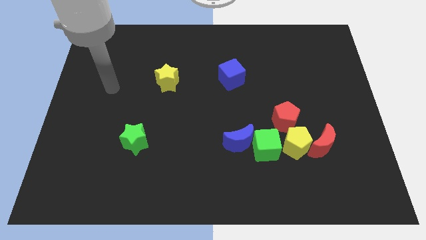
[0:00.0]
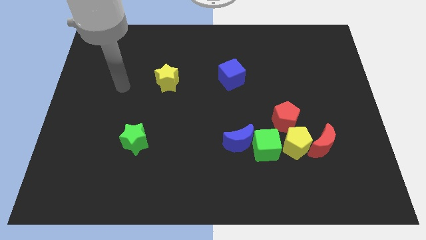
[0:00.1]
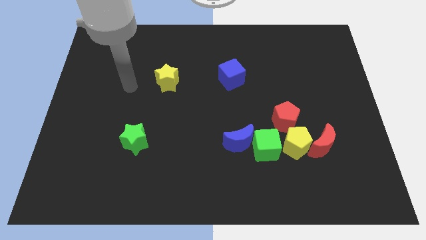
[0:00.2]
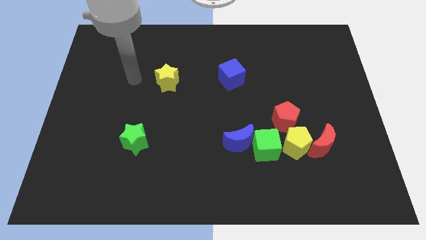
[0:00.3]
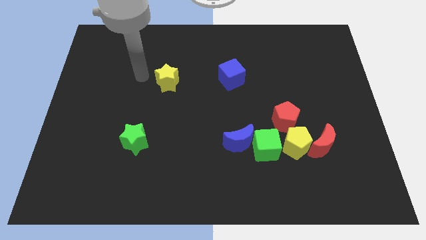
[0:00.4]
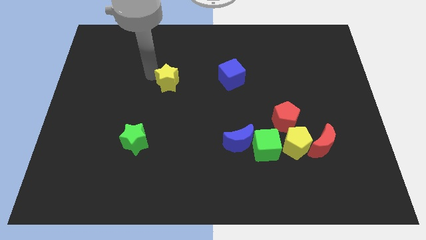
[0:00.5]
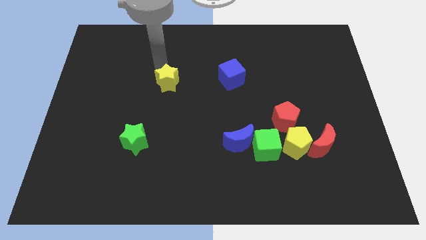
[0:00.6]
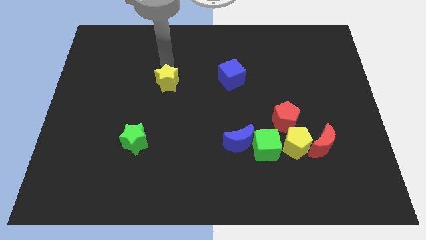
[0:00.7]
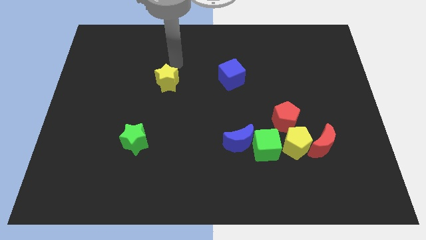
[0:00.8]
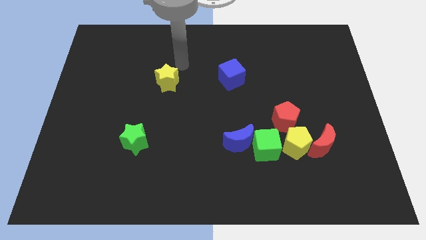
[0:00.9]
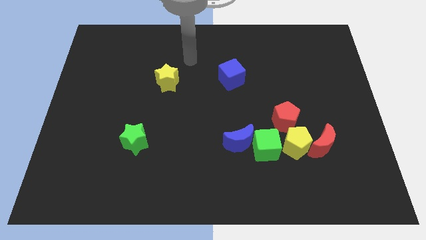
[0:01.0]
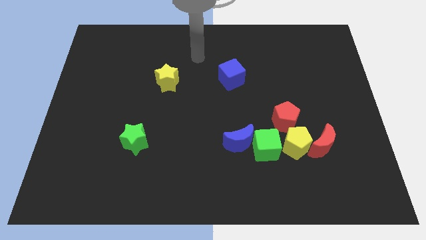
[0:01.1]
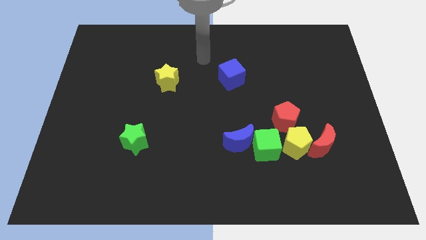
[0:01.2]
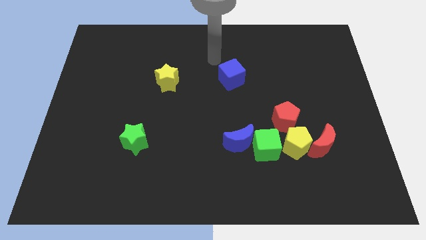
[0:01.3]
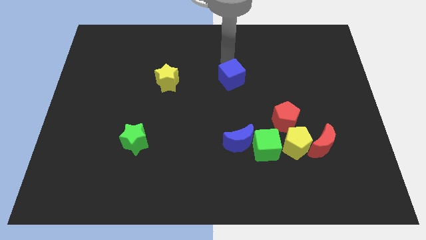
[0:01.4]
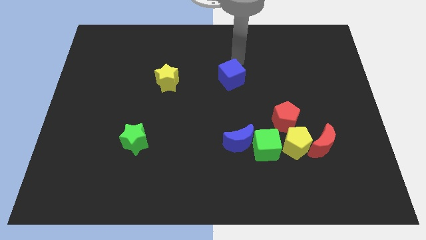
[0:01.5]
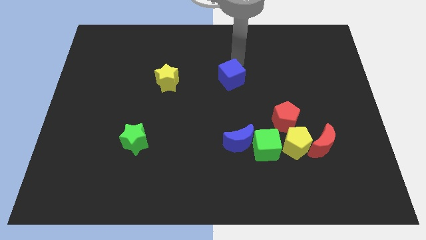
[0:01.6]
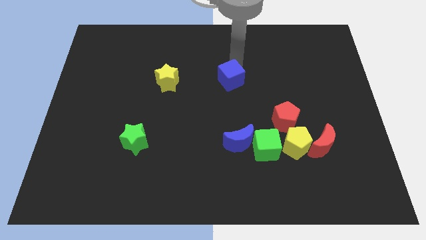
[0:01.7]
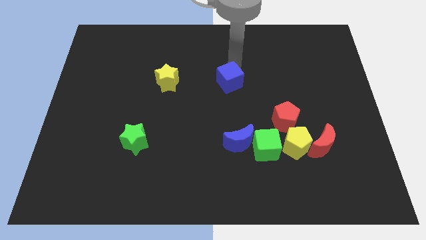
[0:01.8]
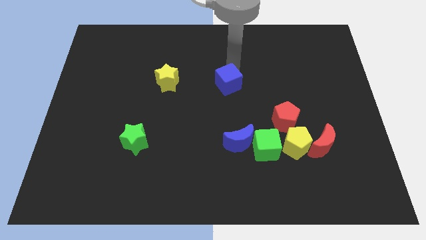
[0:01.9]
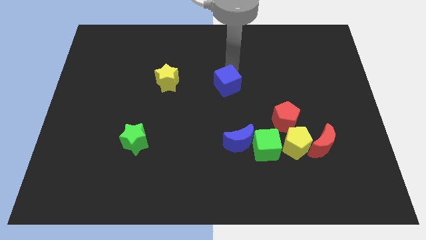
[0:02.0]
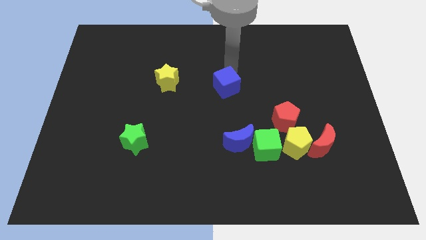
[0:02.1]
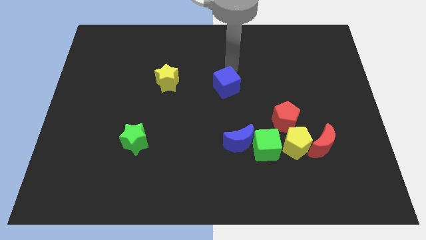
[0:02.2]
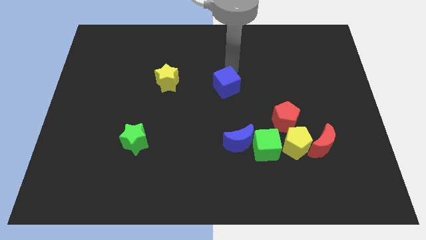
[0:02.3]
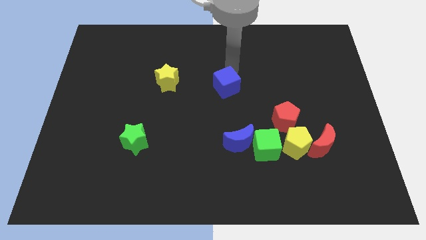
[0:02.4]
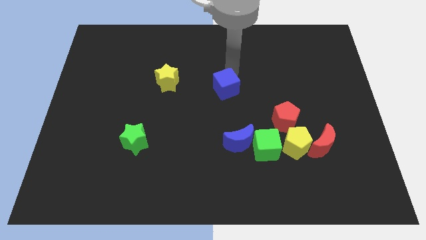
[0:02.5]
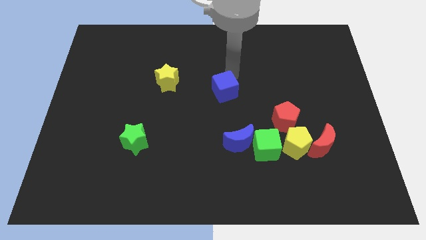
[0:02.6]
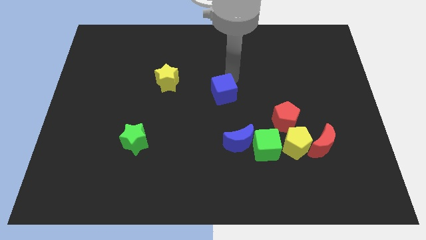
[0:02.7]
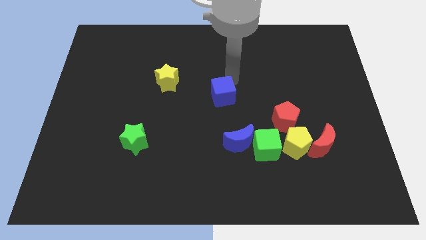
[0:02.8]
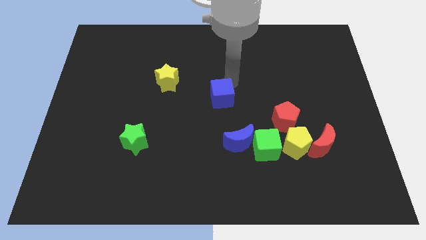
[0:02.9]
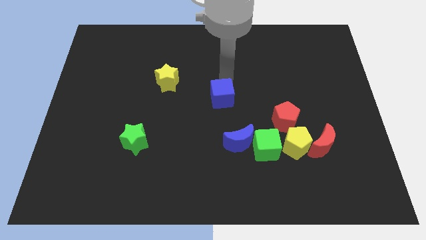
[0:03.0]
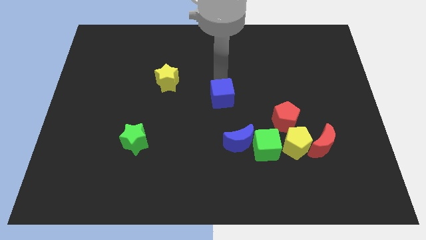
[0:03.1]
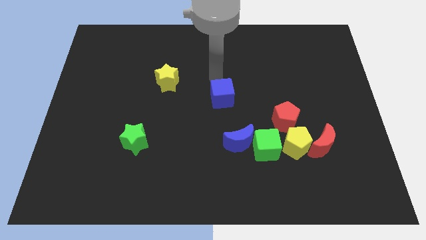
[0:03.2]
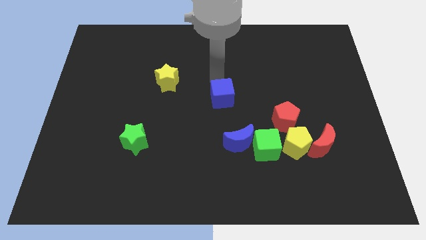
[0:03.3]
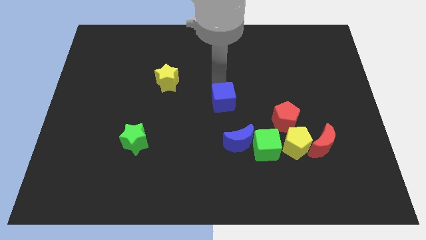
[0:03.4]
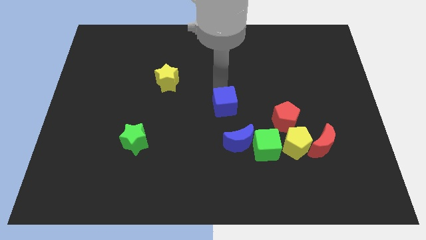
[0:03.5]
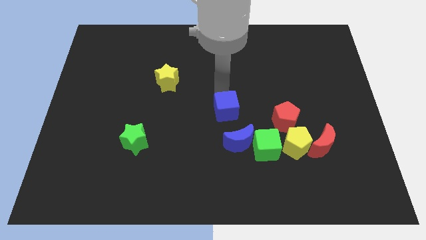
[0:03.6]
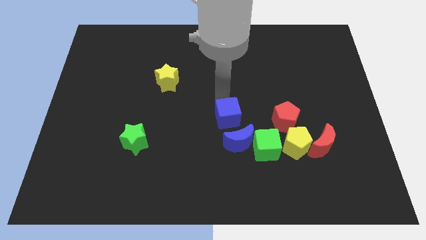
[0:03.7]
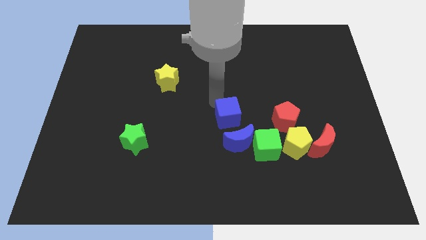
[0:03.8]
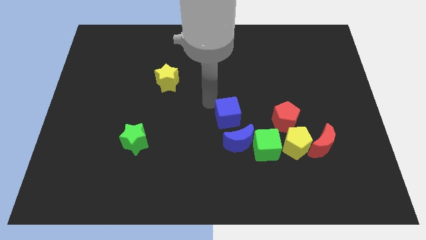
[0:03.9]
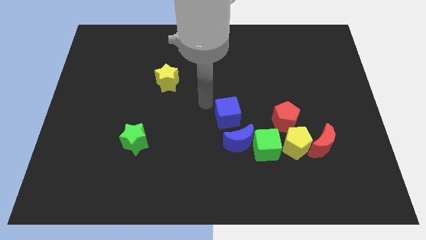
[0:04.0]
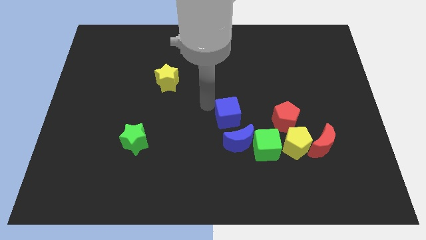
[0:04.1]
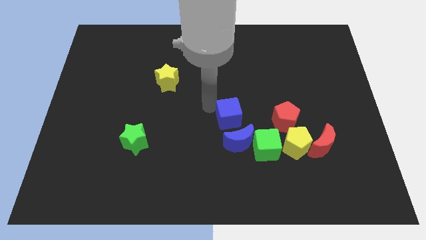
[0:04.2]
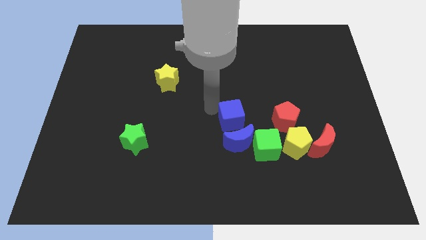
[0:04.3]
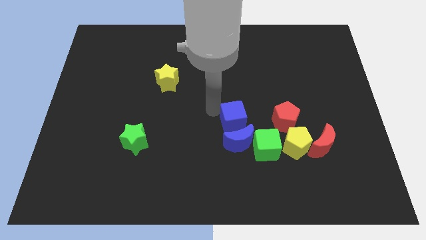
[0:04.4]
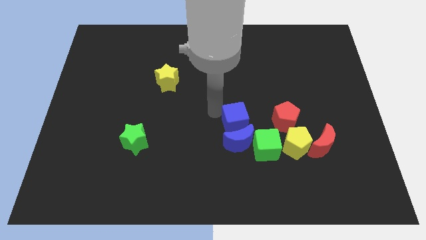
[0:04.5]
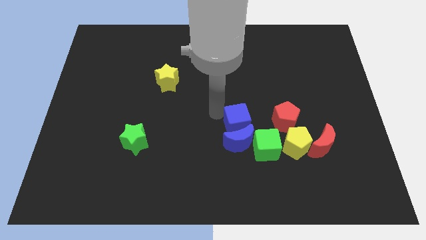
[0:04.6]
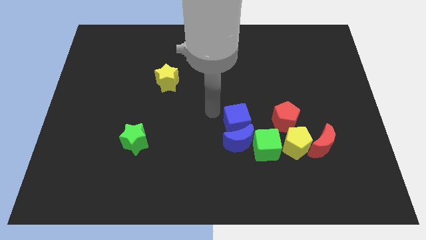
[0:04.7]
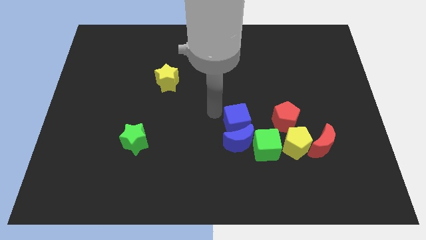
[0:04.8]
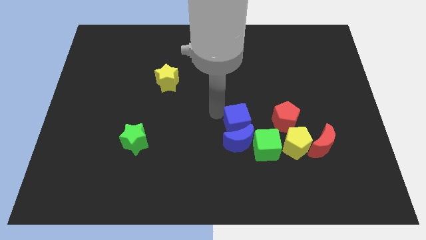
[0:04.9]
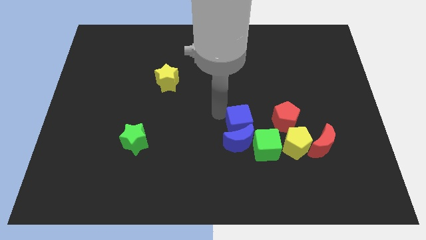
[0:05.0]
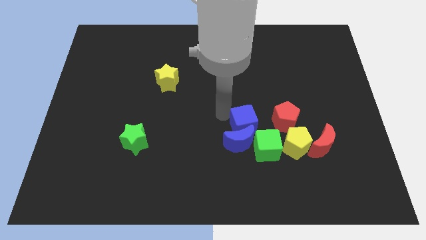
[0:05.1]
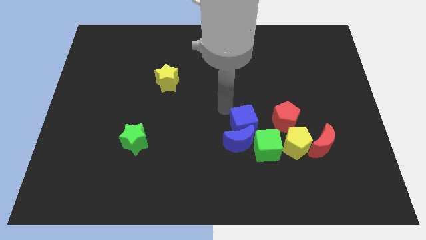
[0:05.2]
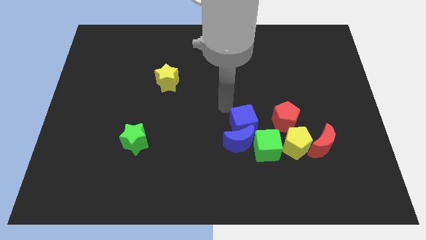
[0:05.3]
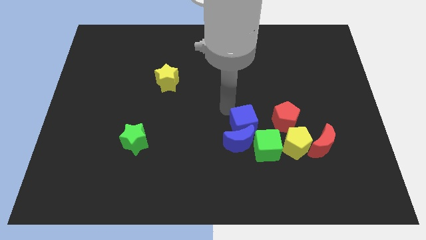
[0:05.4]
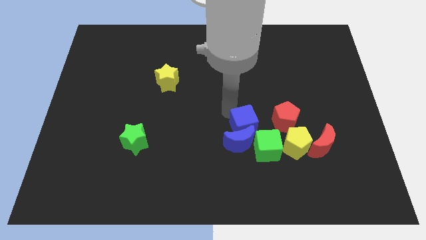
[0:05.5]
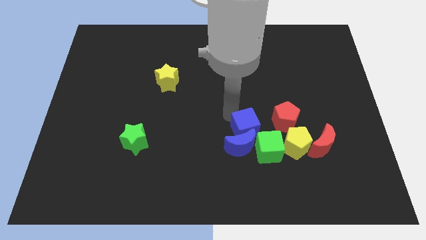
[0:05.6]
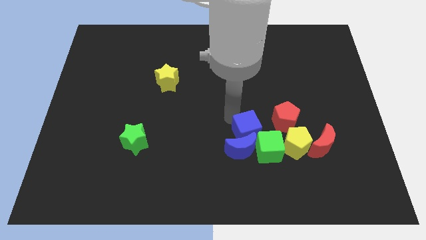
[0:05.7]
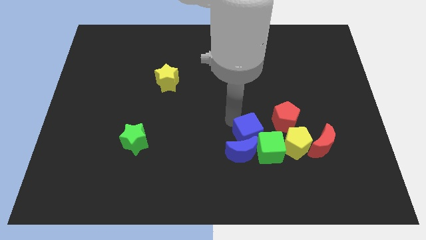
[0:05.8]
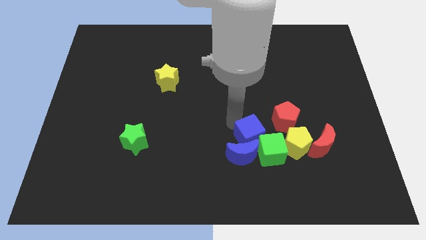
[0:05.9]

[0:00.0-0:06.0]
put the blue cube next to the green cube

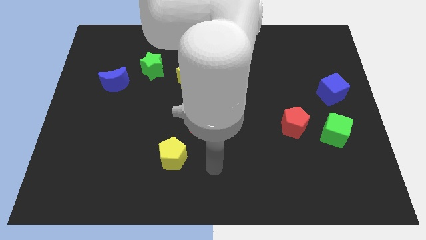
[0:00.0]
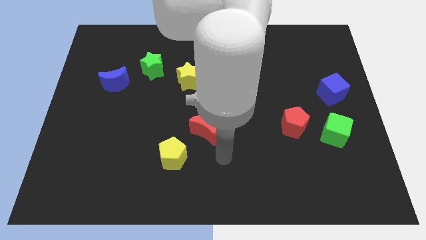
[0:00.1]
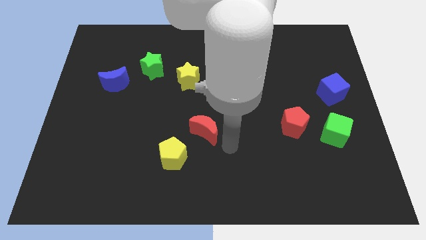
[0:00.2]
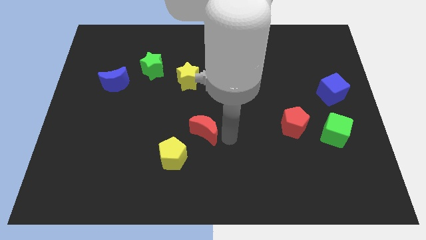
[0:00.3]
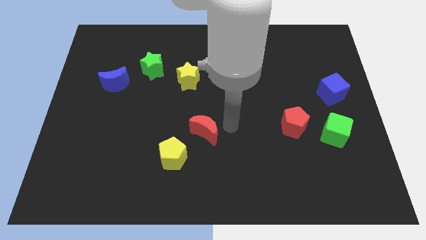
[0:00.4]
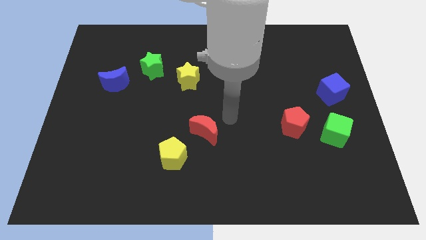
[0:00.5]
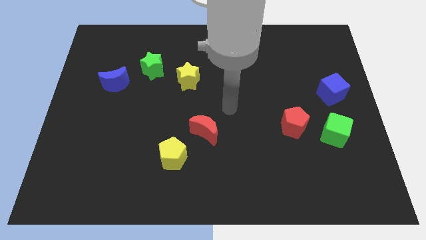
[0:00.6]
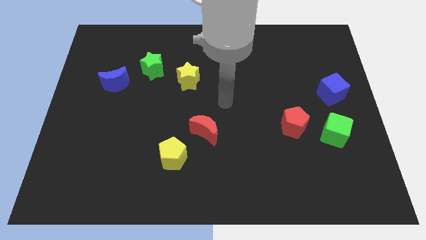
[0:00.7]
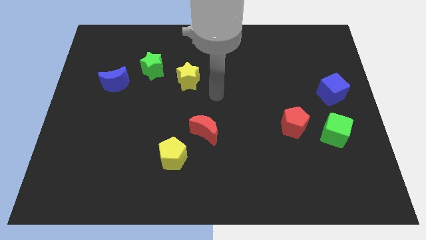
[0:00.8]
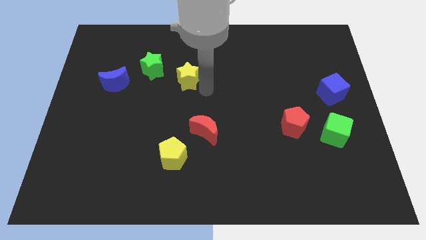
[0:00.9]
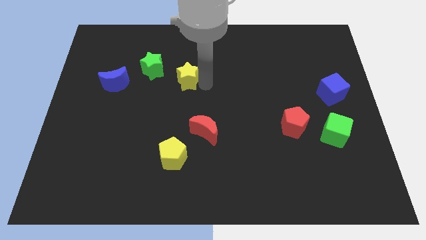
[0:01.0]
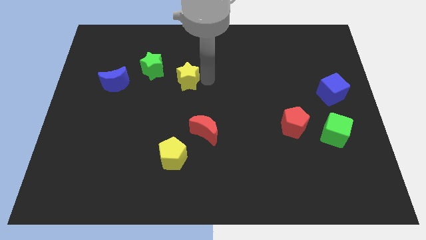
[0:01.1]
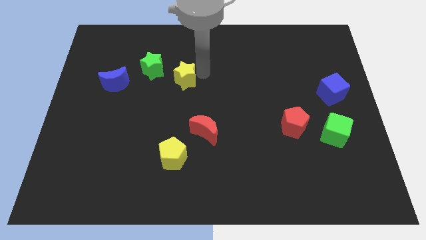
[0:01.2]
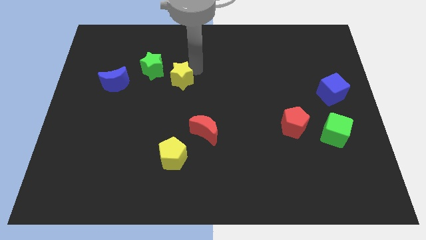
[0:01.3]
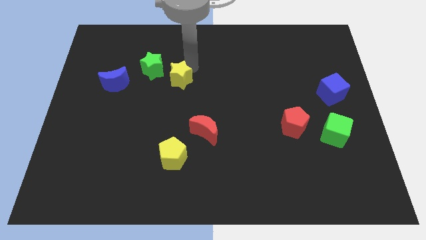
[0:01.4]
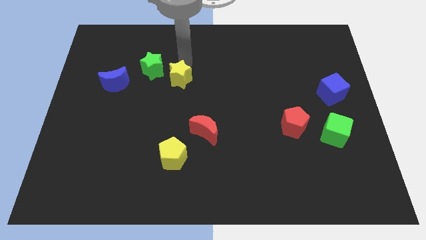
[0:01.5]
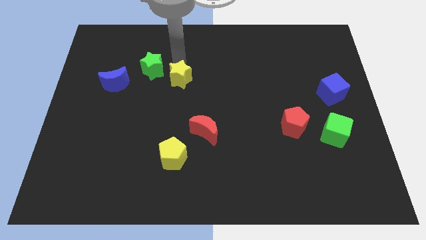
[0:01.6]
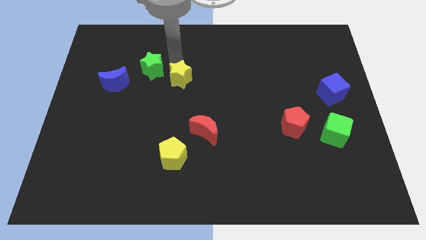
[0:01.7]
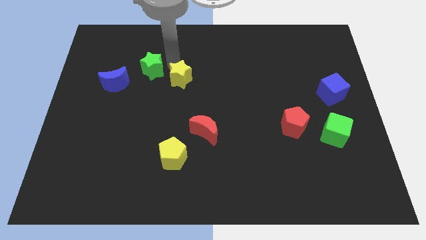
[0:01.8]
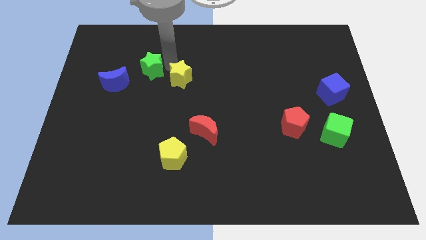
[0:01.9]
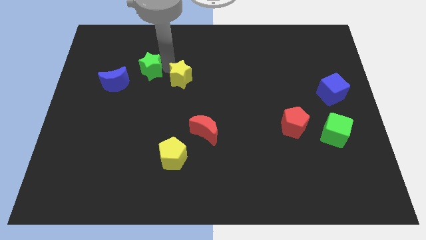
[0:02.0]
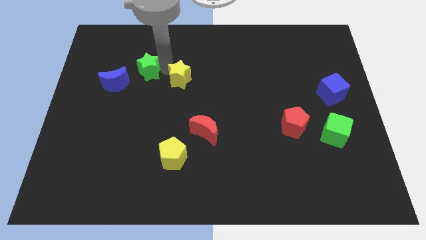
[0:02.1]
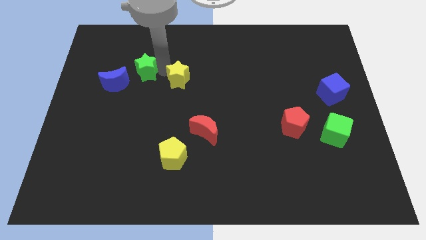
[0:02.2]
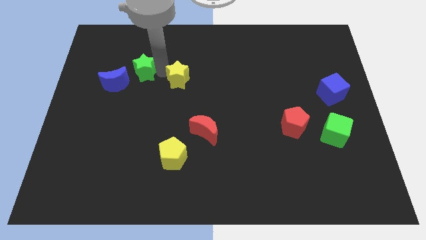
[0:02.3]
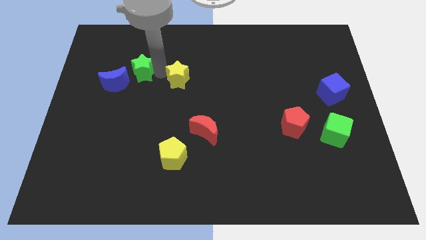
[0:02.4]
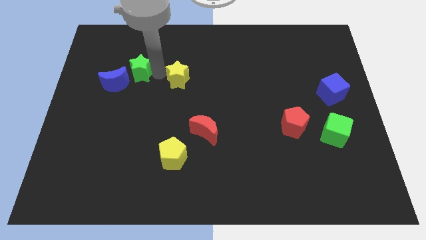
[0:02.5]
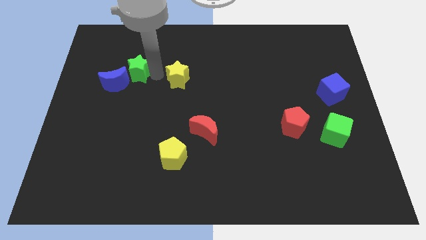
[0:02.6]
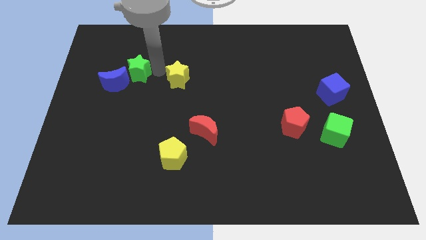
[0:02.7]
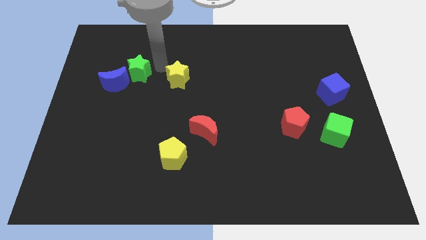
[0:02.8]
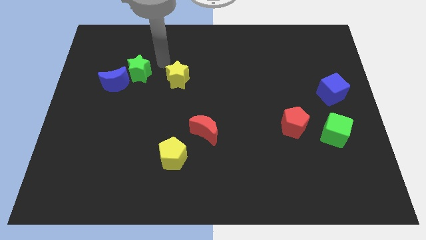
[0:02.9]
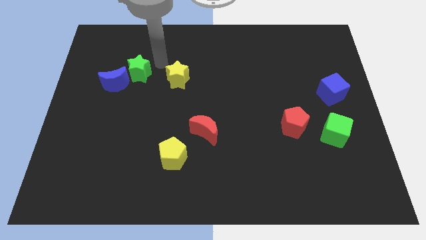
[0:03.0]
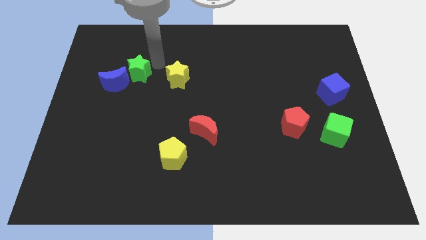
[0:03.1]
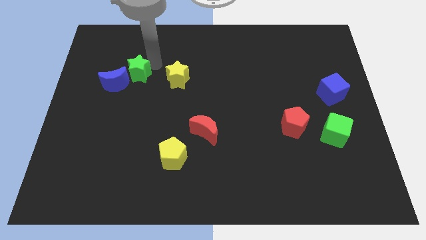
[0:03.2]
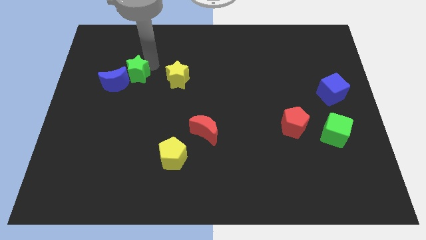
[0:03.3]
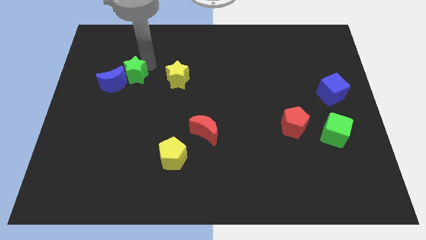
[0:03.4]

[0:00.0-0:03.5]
slide the green star close to the blue moon
